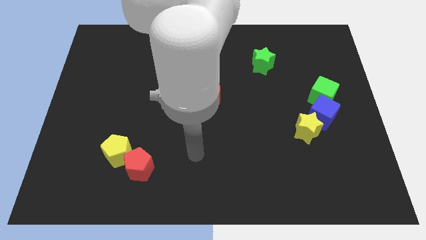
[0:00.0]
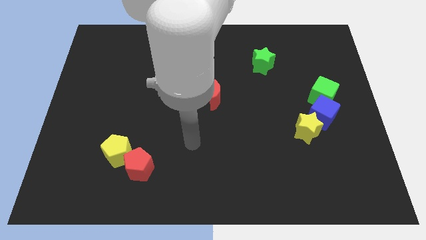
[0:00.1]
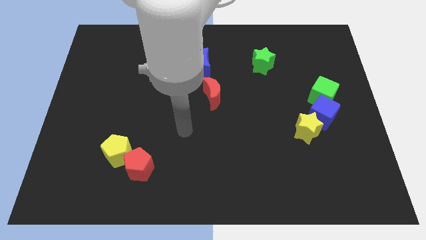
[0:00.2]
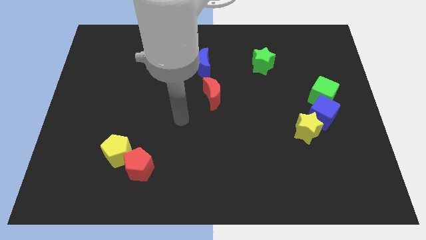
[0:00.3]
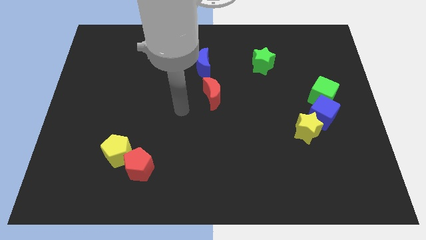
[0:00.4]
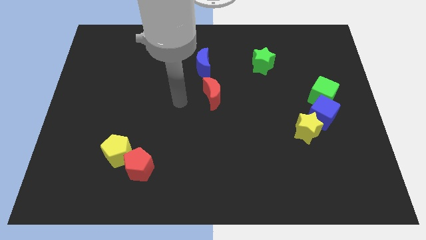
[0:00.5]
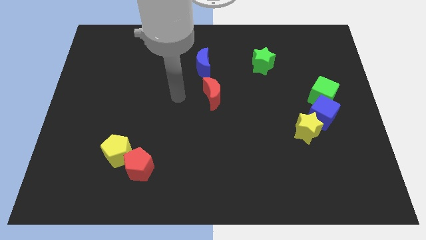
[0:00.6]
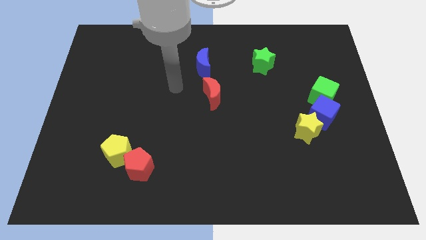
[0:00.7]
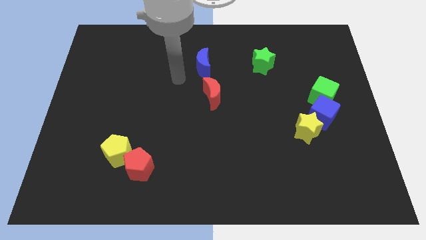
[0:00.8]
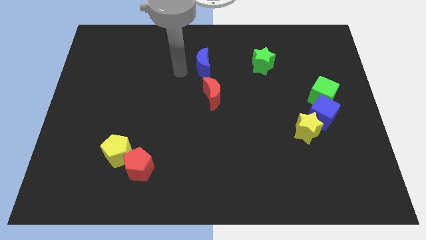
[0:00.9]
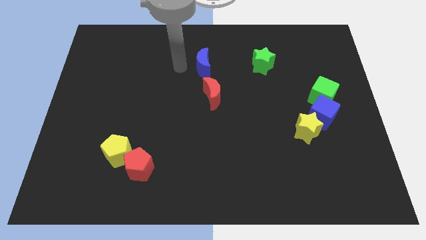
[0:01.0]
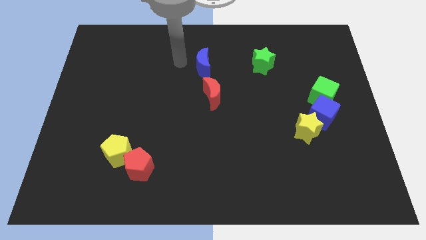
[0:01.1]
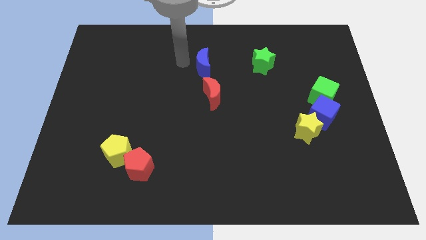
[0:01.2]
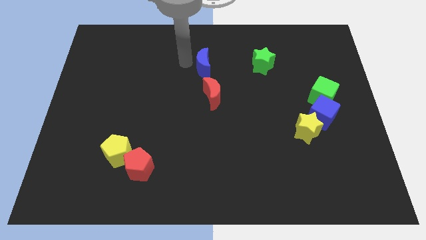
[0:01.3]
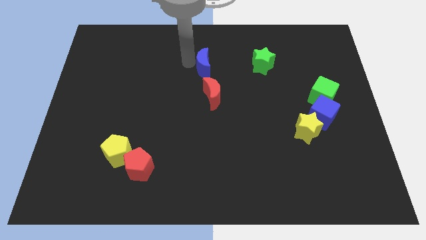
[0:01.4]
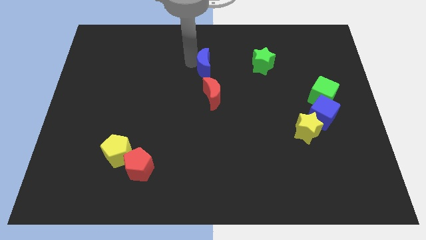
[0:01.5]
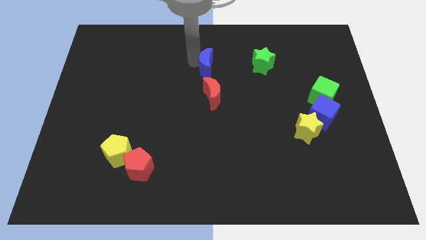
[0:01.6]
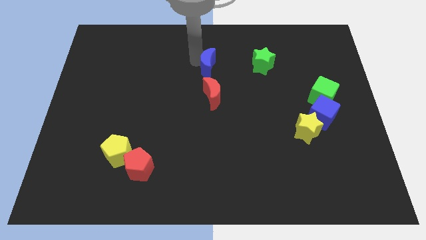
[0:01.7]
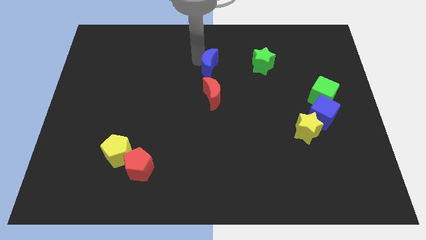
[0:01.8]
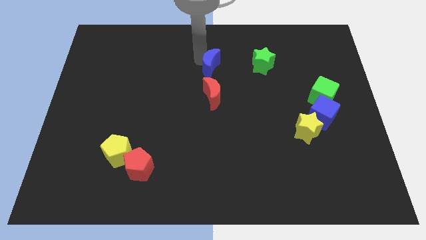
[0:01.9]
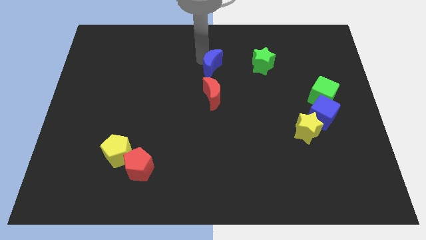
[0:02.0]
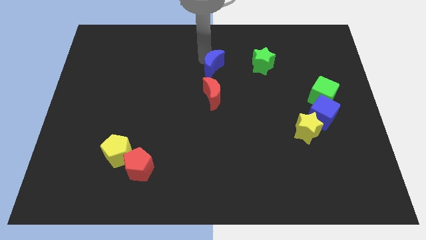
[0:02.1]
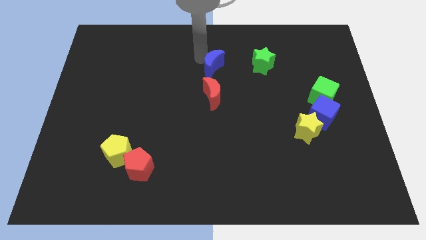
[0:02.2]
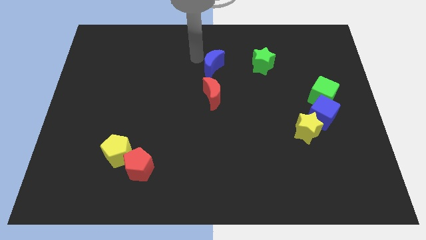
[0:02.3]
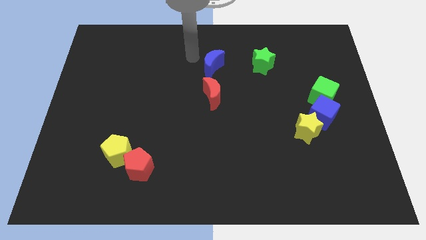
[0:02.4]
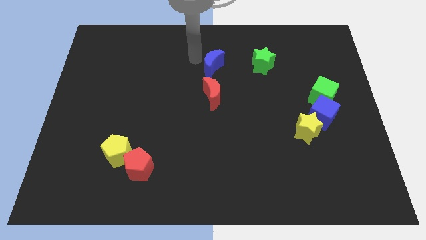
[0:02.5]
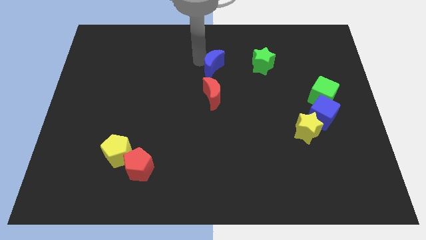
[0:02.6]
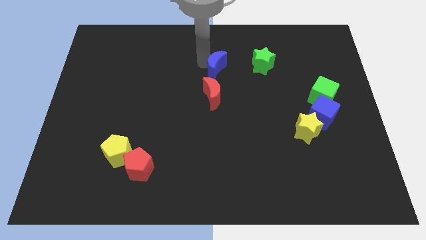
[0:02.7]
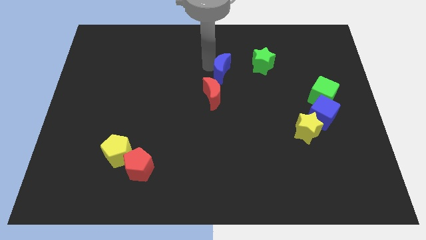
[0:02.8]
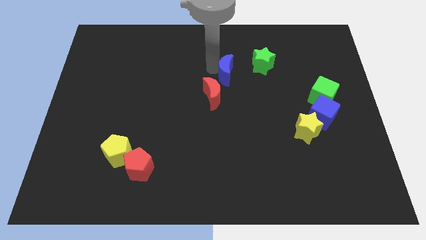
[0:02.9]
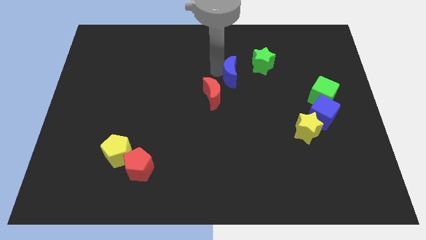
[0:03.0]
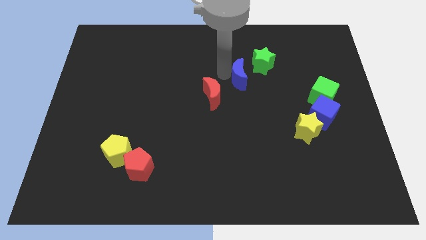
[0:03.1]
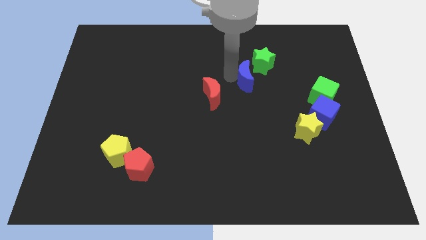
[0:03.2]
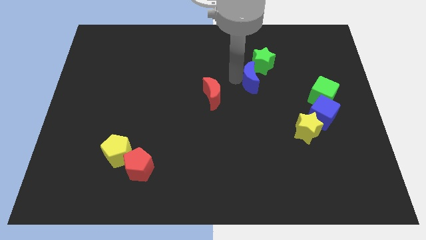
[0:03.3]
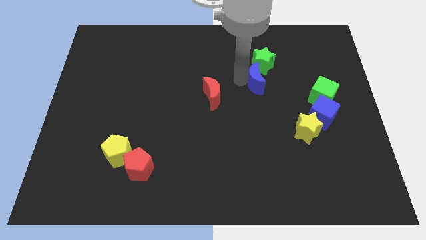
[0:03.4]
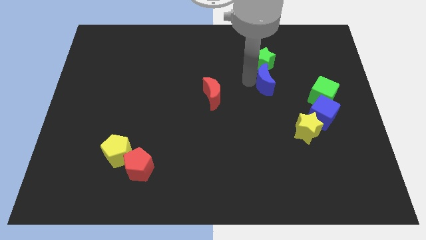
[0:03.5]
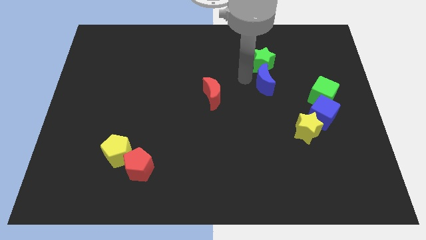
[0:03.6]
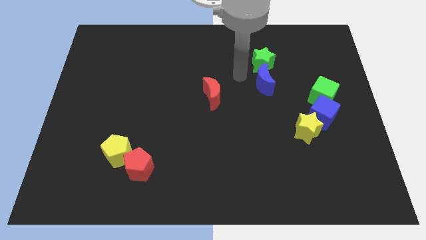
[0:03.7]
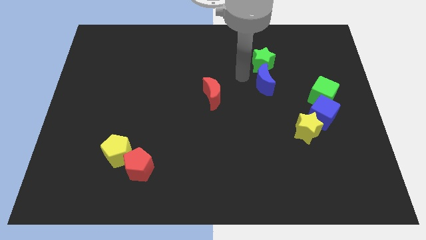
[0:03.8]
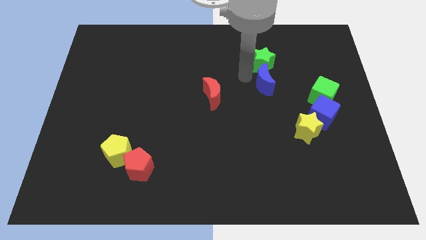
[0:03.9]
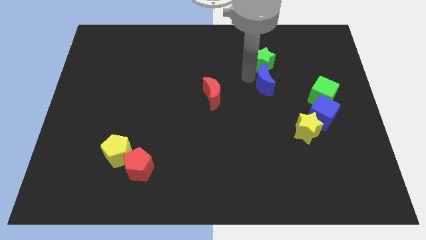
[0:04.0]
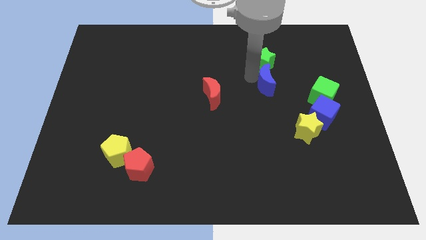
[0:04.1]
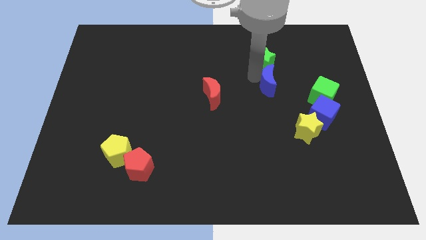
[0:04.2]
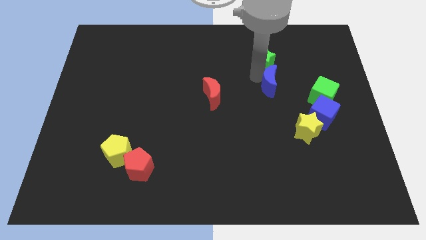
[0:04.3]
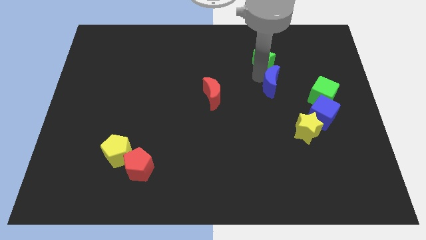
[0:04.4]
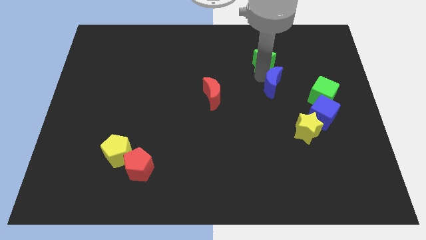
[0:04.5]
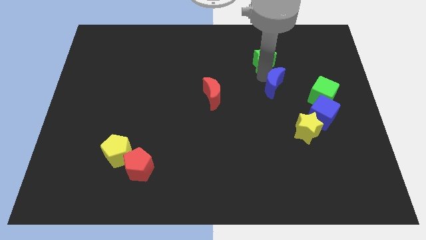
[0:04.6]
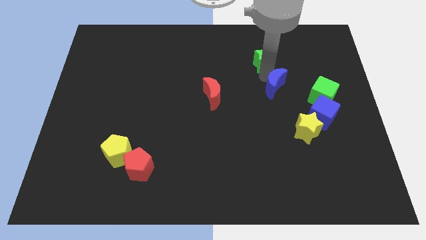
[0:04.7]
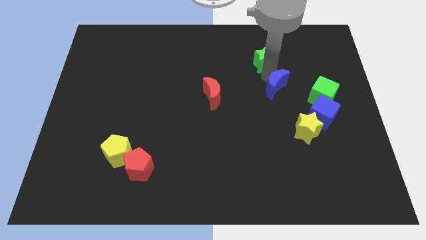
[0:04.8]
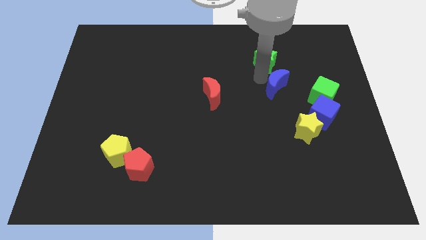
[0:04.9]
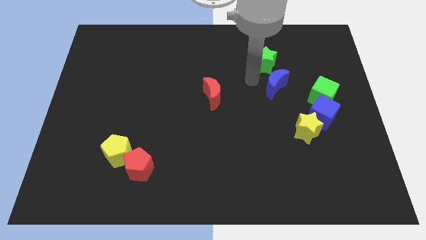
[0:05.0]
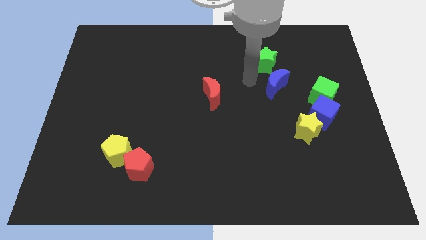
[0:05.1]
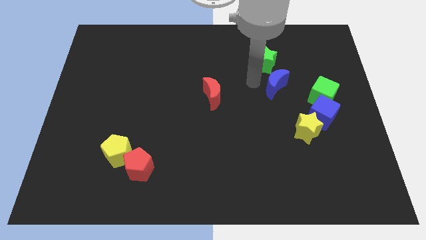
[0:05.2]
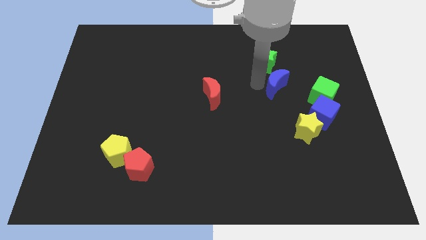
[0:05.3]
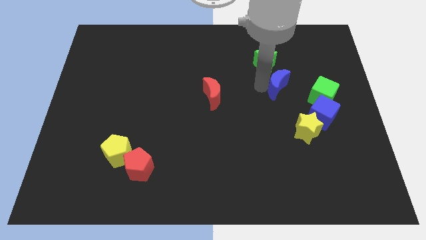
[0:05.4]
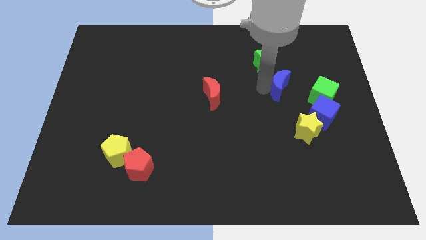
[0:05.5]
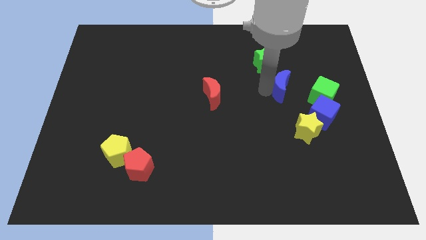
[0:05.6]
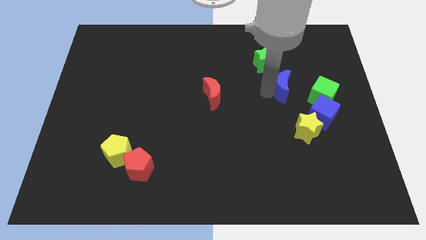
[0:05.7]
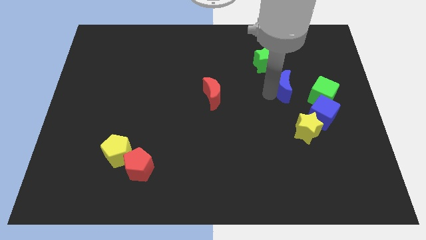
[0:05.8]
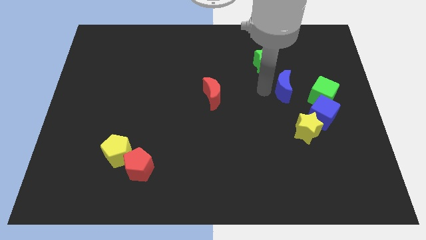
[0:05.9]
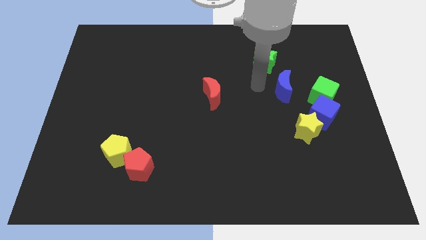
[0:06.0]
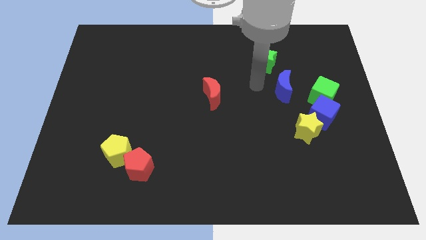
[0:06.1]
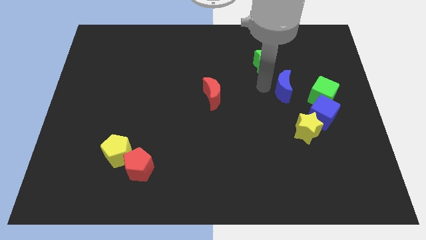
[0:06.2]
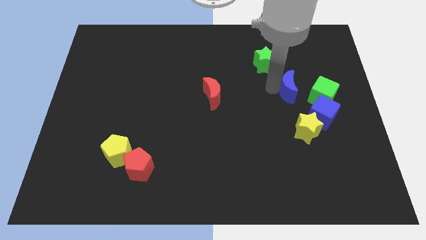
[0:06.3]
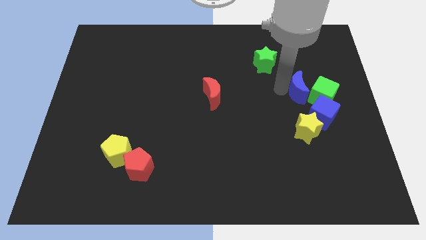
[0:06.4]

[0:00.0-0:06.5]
push the blue moon next to the green cube

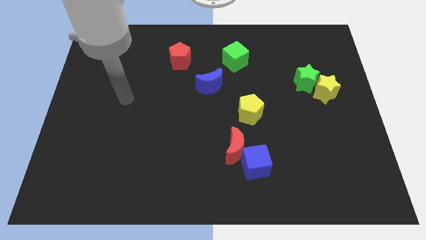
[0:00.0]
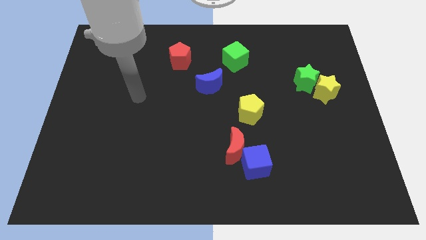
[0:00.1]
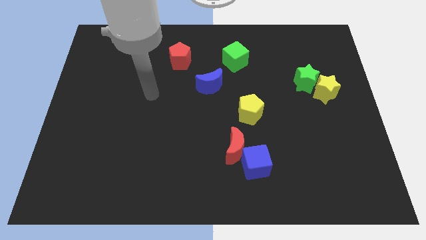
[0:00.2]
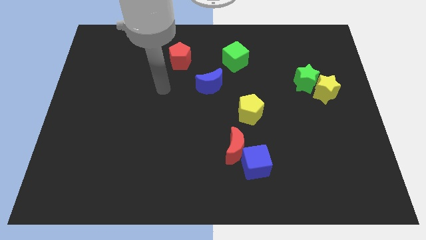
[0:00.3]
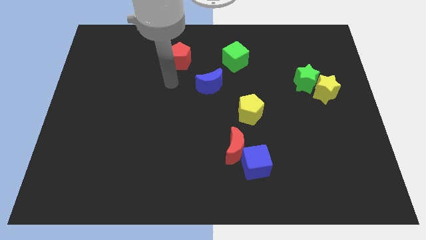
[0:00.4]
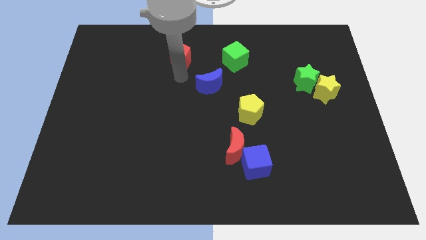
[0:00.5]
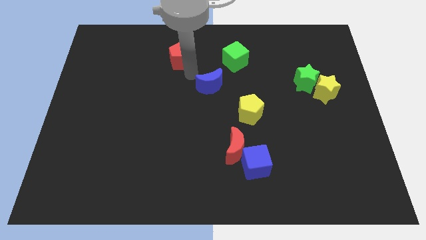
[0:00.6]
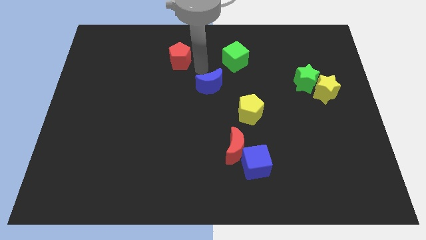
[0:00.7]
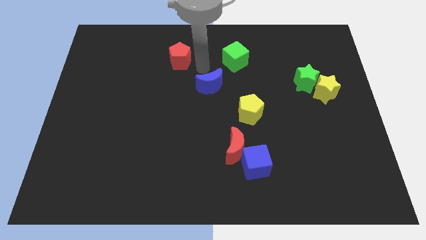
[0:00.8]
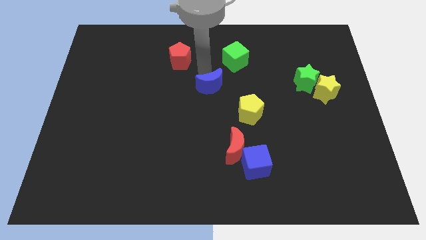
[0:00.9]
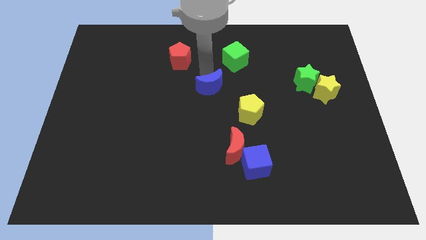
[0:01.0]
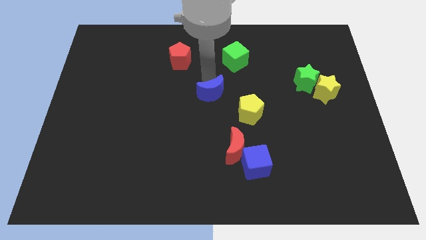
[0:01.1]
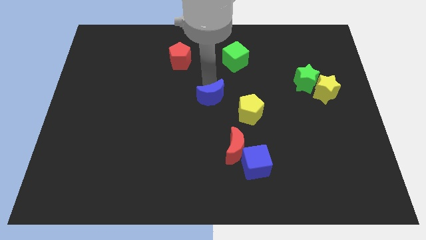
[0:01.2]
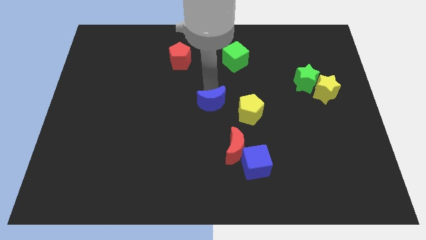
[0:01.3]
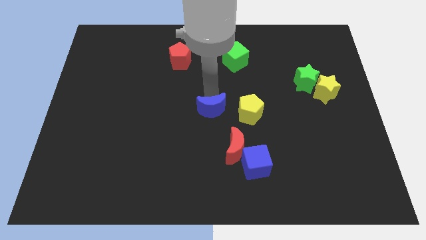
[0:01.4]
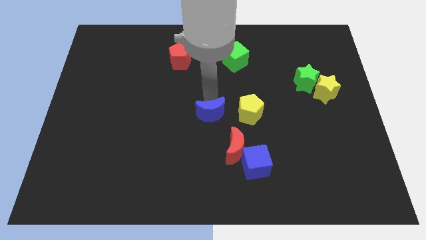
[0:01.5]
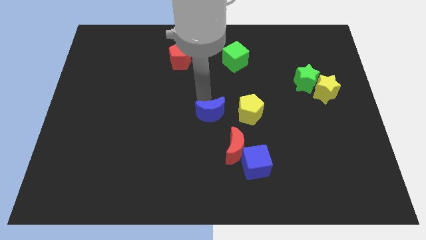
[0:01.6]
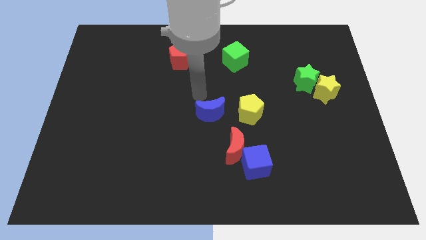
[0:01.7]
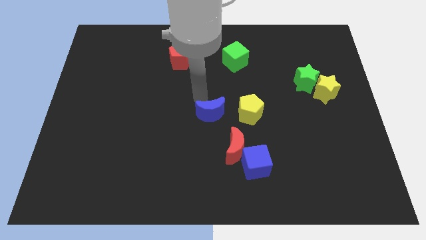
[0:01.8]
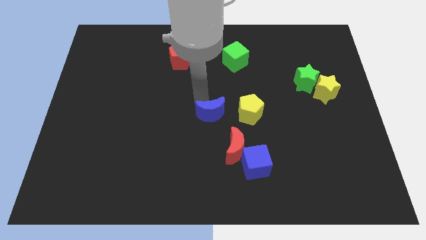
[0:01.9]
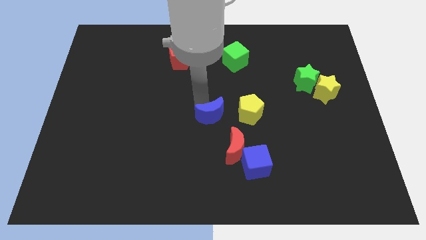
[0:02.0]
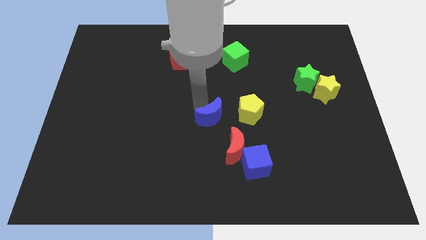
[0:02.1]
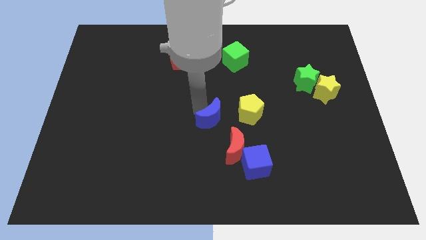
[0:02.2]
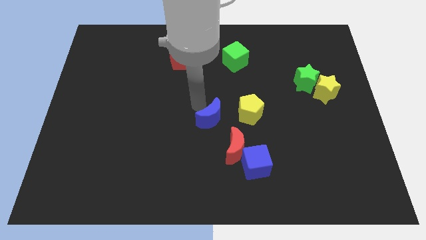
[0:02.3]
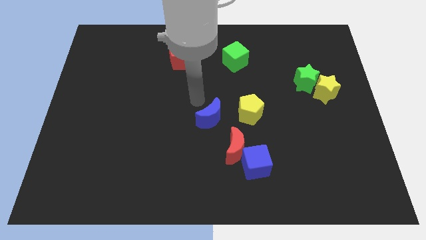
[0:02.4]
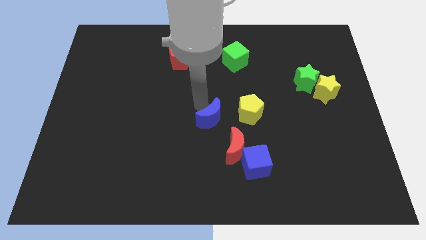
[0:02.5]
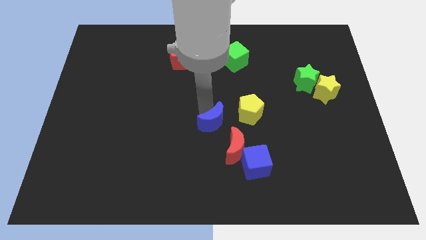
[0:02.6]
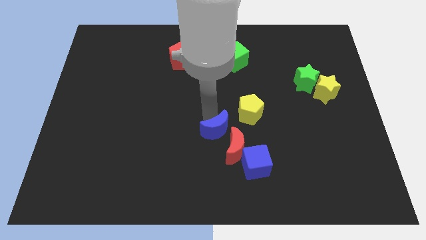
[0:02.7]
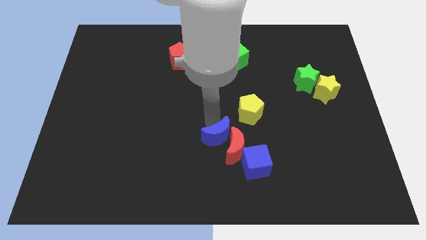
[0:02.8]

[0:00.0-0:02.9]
push the blue moon next to the red moon
